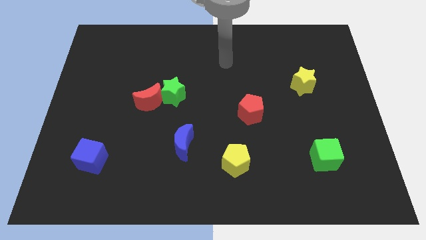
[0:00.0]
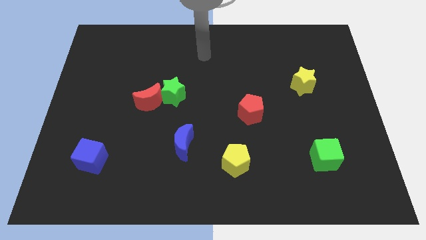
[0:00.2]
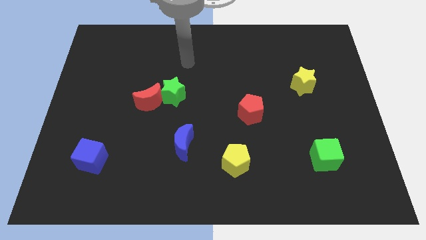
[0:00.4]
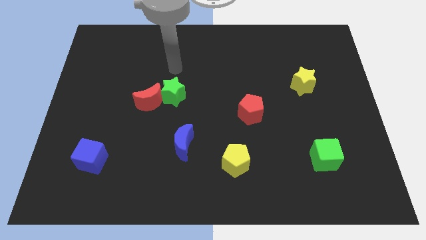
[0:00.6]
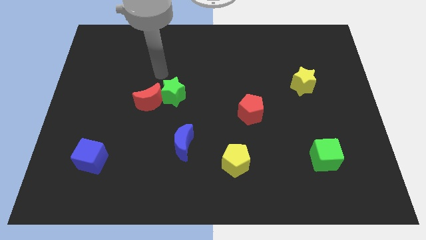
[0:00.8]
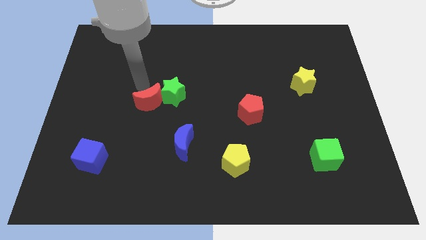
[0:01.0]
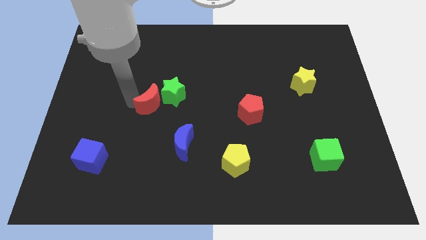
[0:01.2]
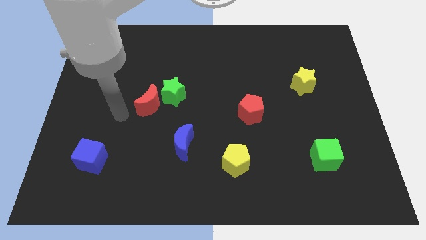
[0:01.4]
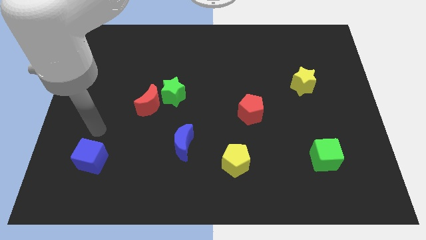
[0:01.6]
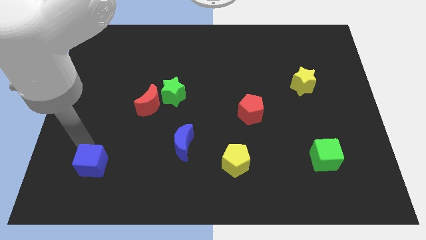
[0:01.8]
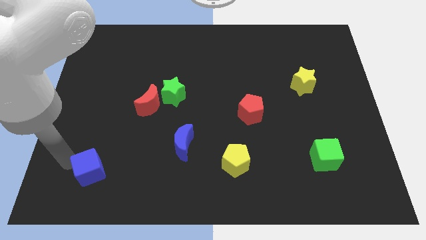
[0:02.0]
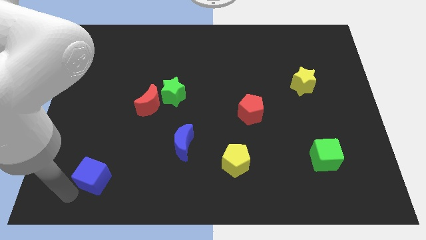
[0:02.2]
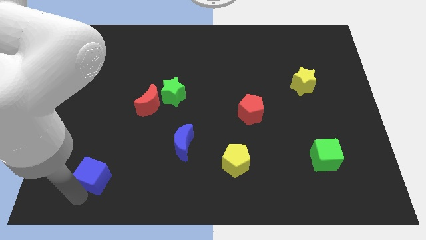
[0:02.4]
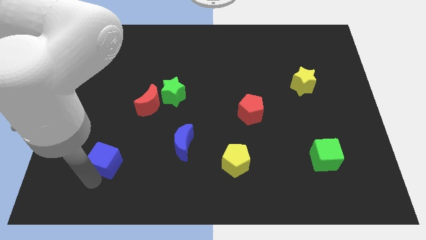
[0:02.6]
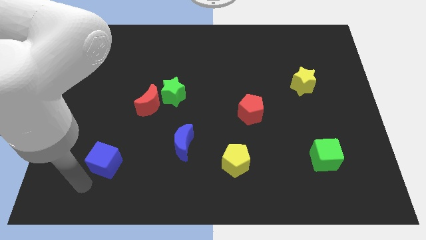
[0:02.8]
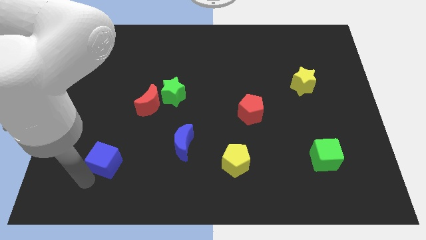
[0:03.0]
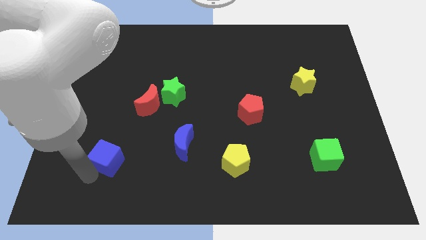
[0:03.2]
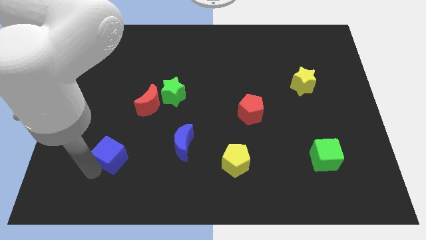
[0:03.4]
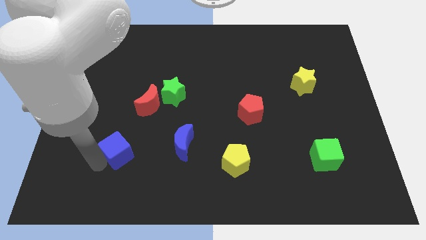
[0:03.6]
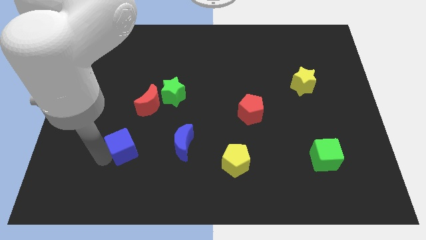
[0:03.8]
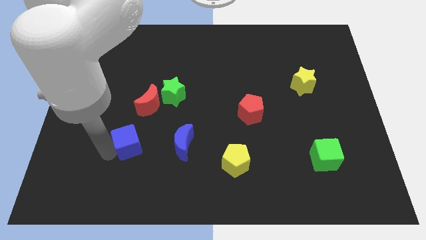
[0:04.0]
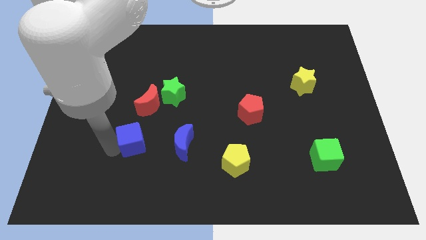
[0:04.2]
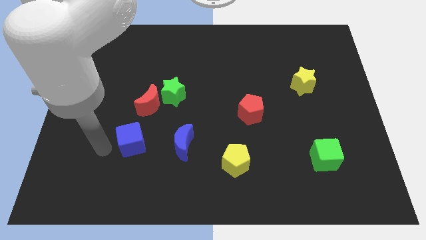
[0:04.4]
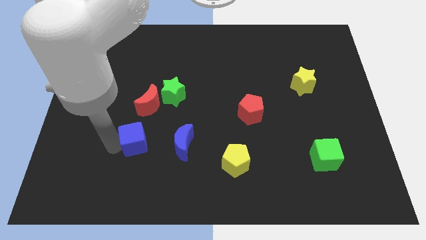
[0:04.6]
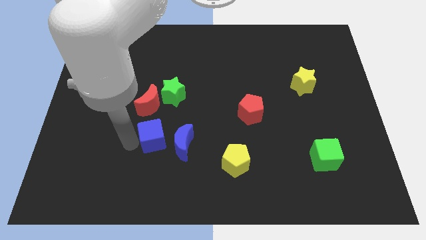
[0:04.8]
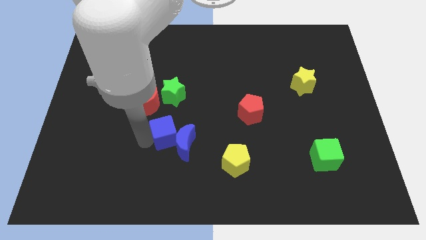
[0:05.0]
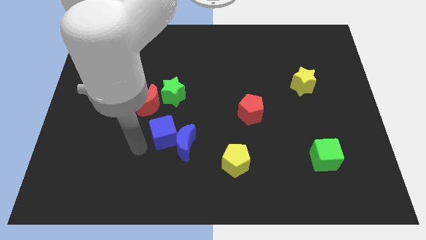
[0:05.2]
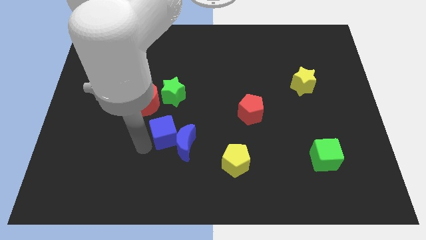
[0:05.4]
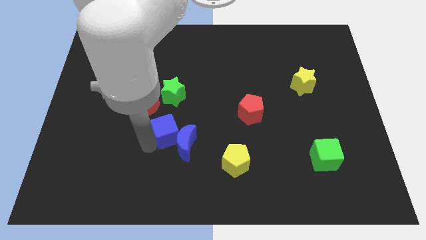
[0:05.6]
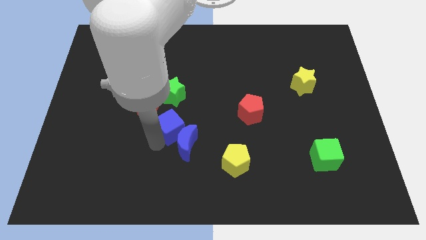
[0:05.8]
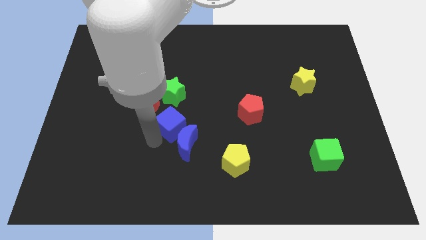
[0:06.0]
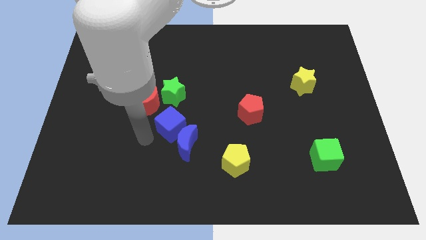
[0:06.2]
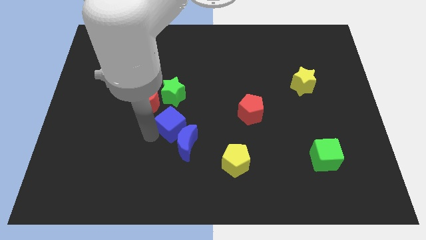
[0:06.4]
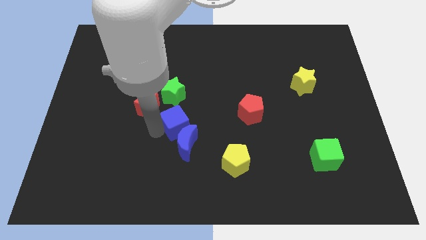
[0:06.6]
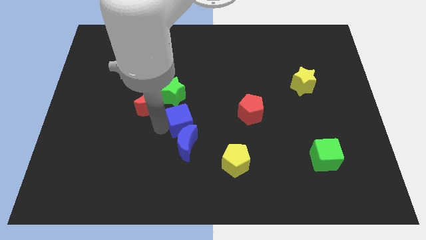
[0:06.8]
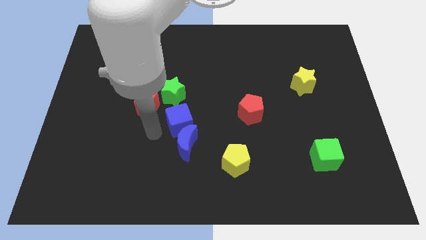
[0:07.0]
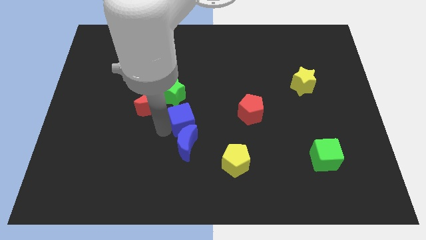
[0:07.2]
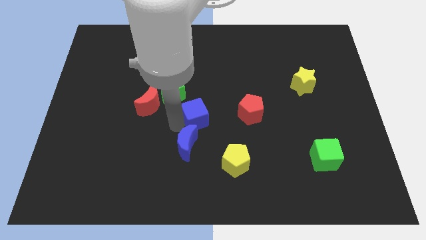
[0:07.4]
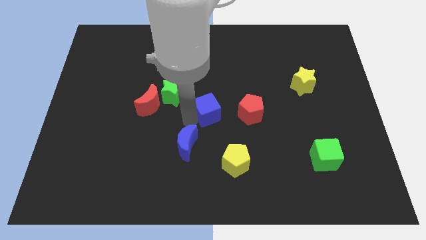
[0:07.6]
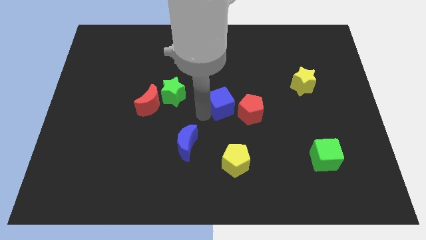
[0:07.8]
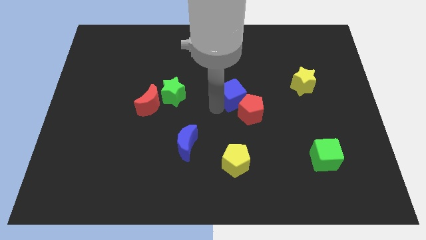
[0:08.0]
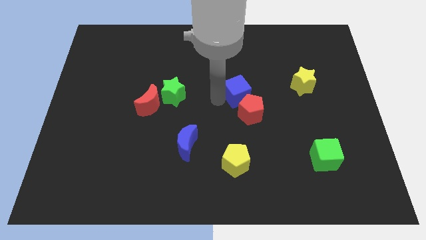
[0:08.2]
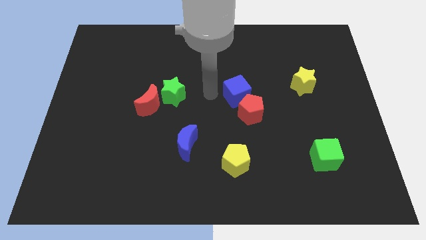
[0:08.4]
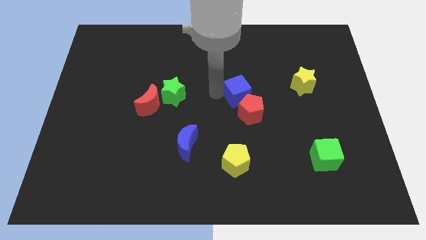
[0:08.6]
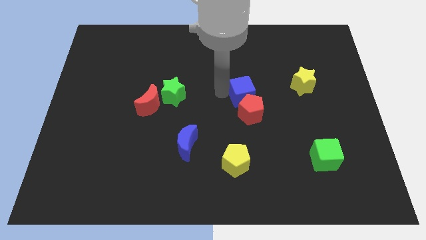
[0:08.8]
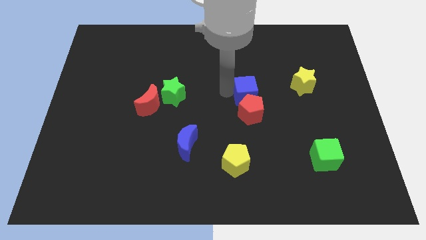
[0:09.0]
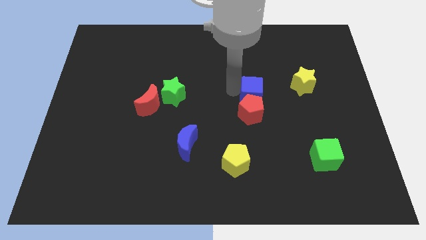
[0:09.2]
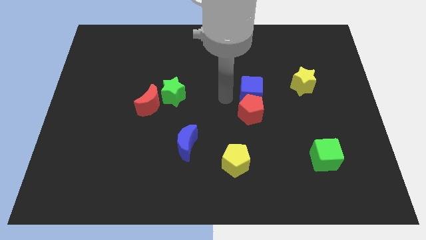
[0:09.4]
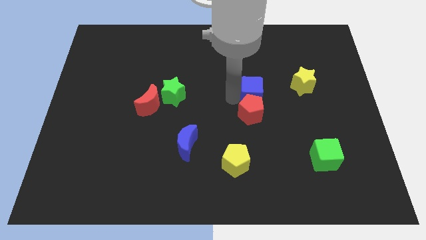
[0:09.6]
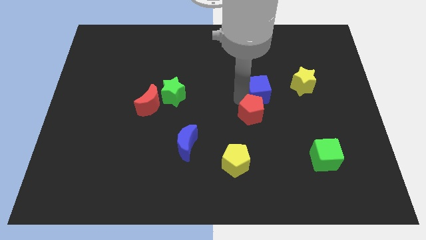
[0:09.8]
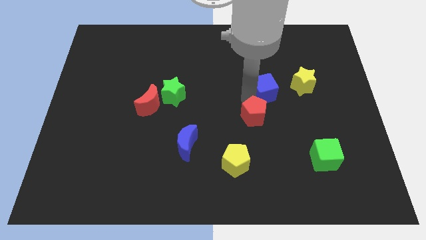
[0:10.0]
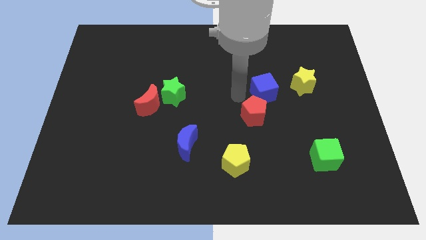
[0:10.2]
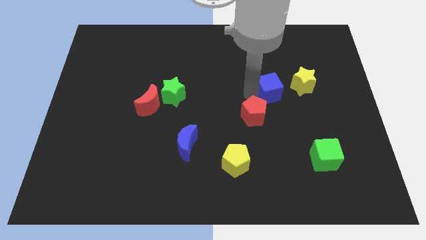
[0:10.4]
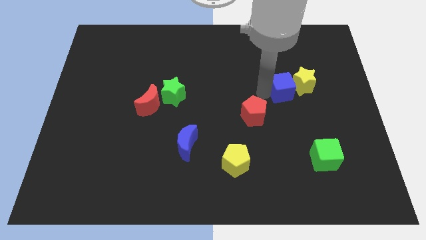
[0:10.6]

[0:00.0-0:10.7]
slide the blue cube next to the yellow star

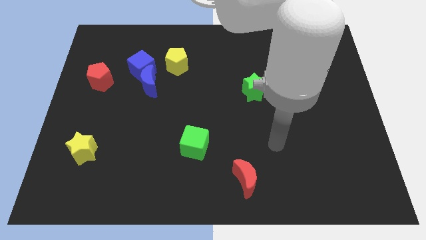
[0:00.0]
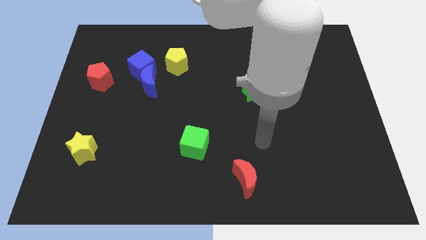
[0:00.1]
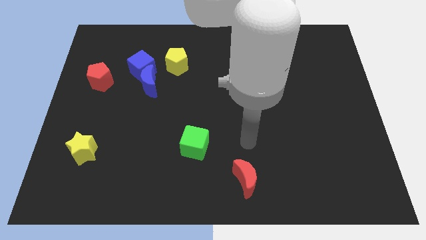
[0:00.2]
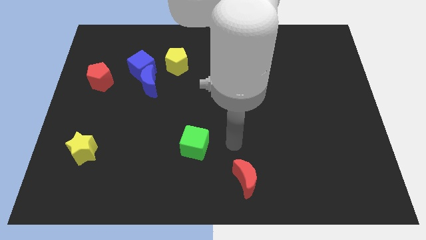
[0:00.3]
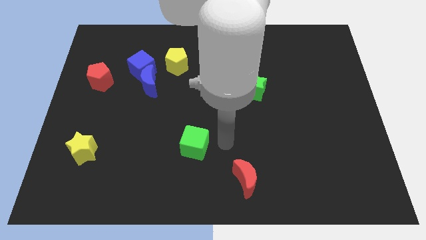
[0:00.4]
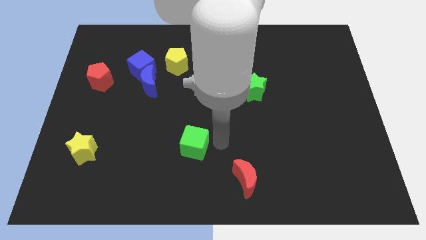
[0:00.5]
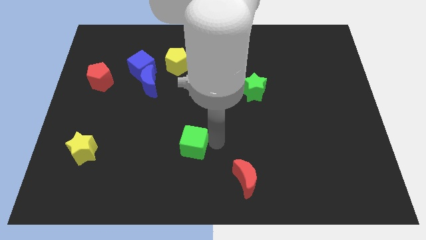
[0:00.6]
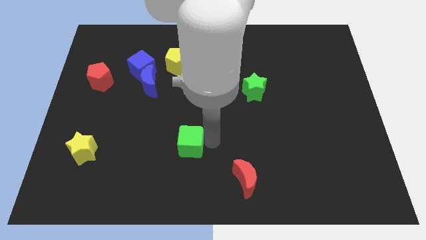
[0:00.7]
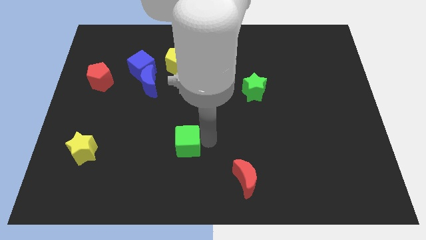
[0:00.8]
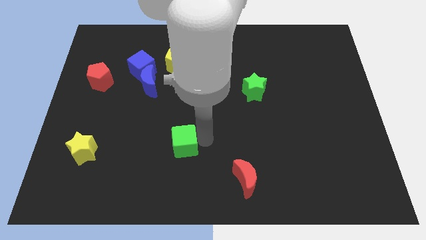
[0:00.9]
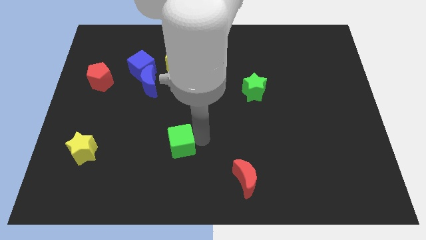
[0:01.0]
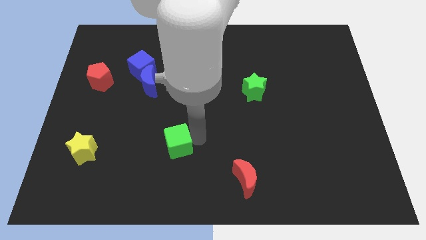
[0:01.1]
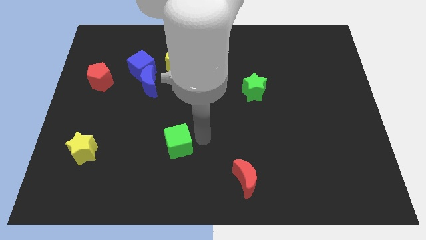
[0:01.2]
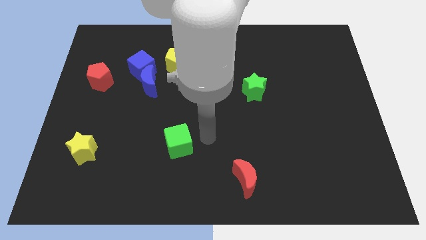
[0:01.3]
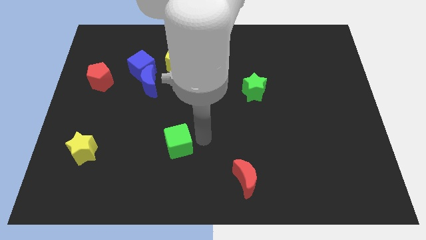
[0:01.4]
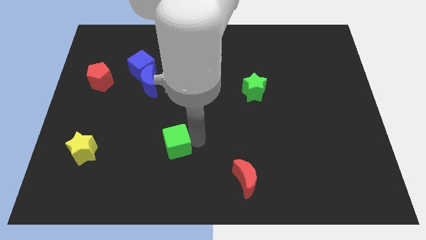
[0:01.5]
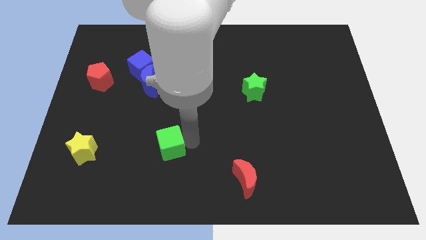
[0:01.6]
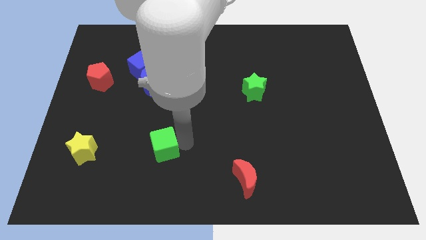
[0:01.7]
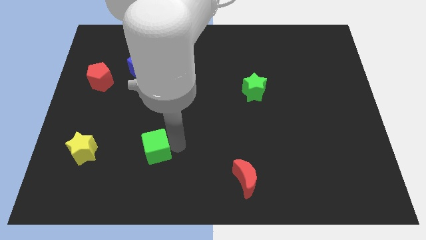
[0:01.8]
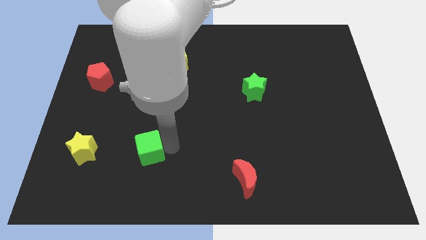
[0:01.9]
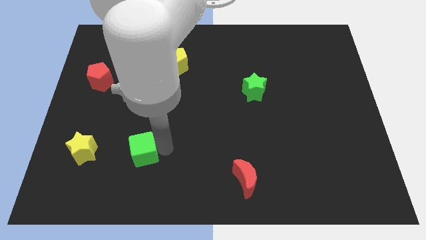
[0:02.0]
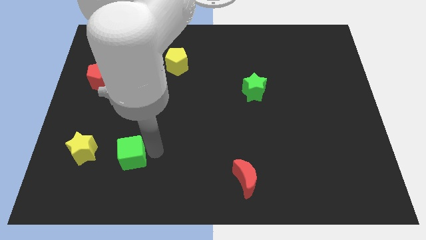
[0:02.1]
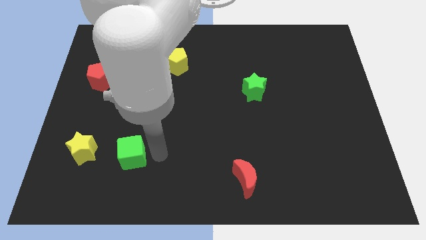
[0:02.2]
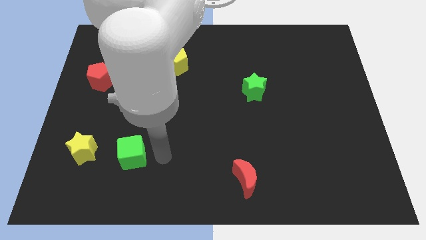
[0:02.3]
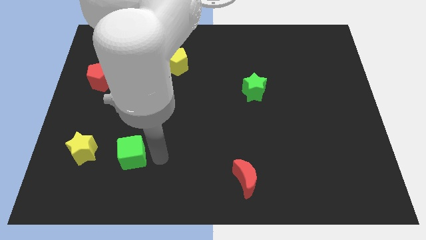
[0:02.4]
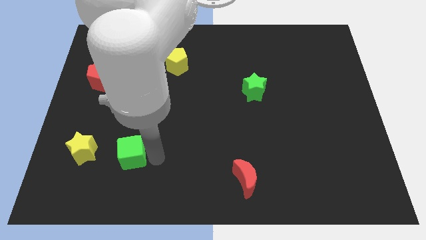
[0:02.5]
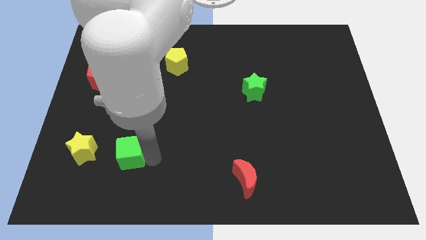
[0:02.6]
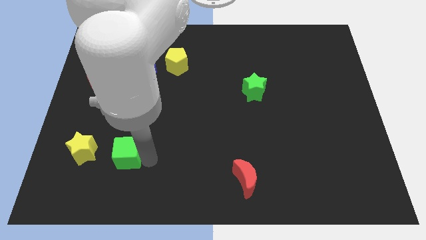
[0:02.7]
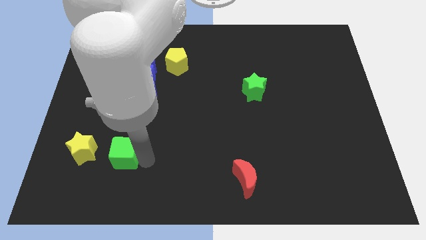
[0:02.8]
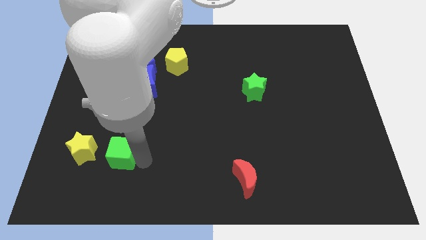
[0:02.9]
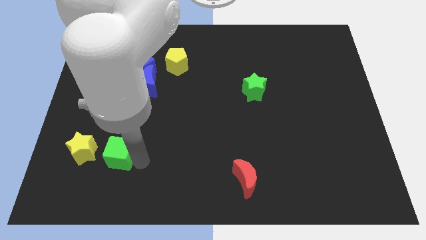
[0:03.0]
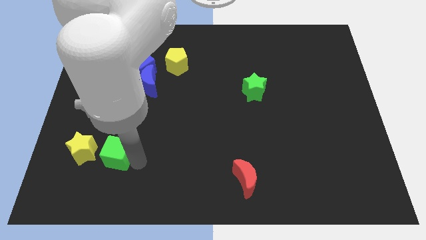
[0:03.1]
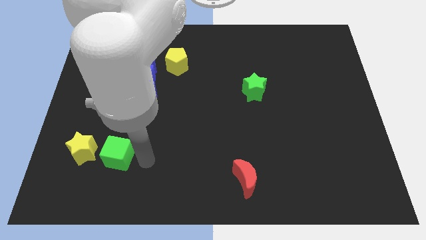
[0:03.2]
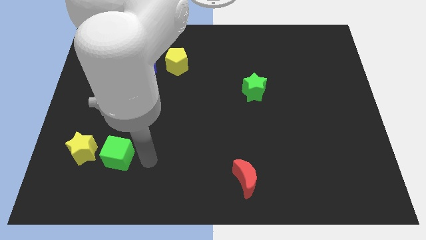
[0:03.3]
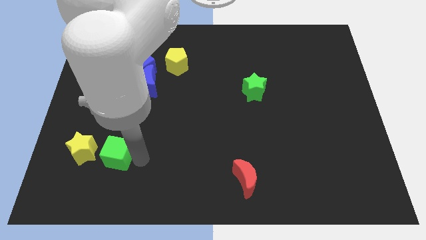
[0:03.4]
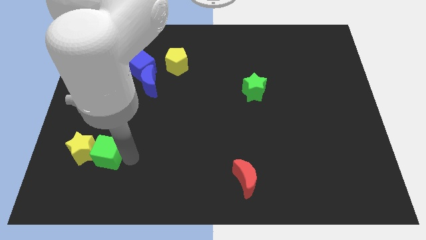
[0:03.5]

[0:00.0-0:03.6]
slide the green cube next to the yellow star
